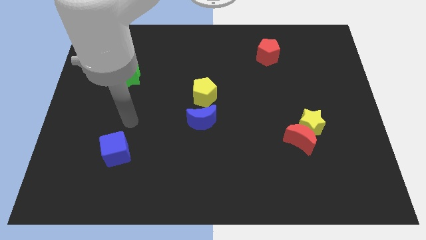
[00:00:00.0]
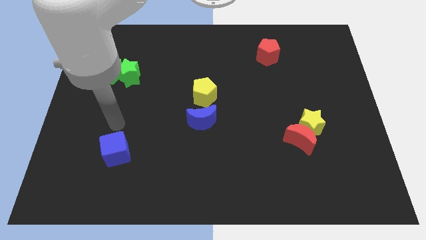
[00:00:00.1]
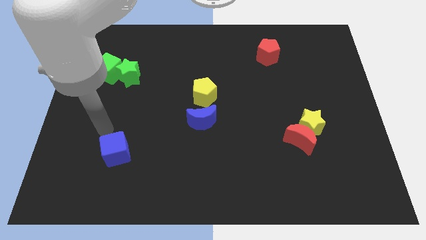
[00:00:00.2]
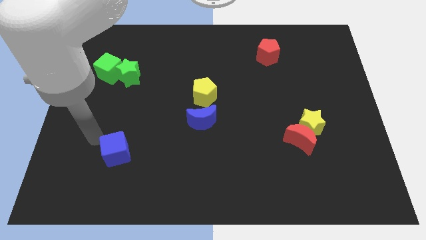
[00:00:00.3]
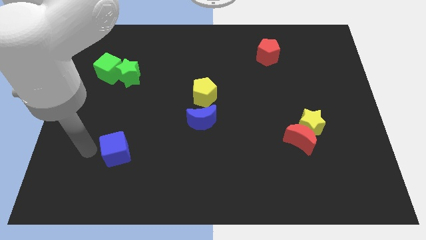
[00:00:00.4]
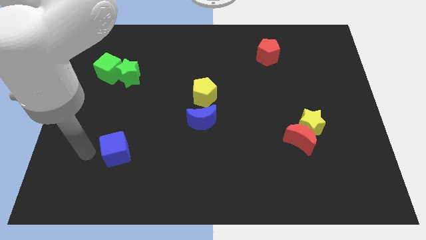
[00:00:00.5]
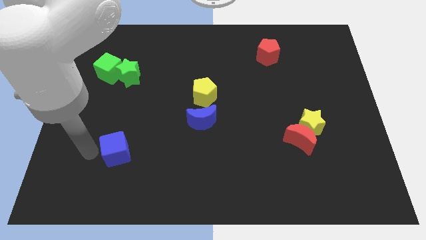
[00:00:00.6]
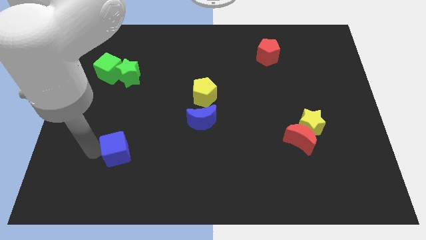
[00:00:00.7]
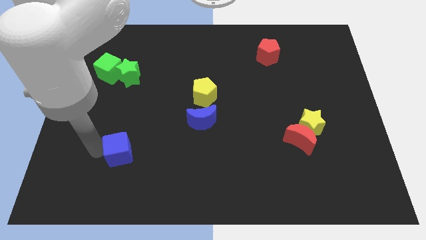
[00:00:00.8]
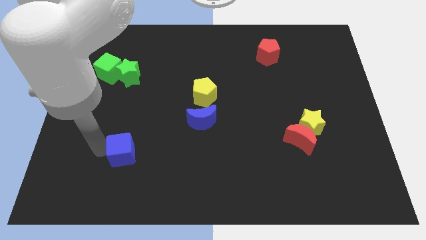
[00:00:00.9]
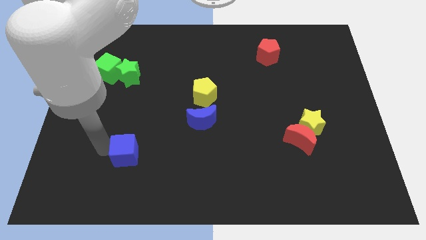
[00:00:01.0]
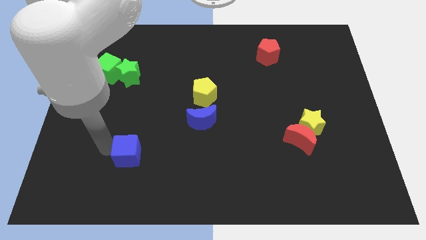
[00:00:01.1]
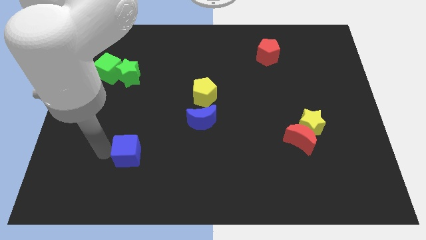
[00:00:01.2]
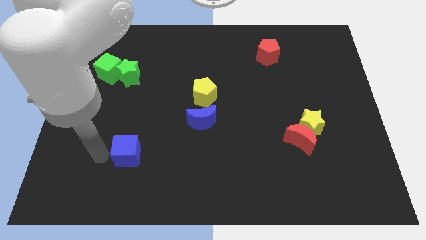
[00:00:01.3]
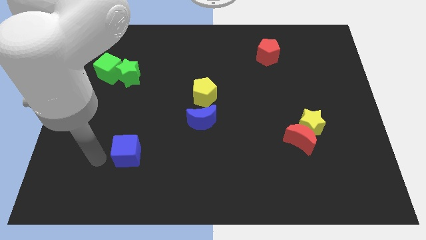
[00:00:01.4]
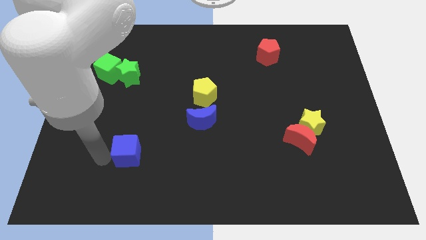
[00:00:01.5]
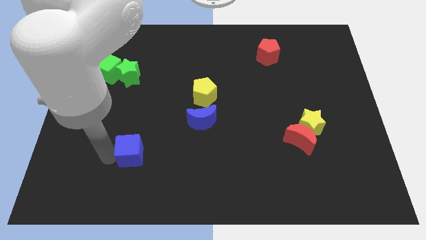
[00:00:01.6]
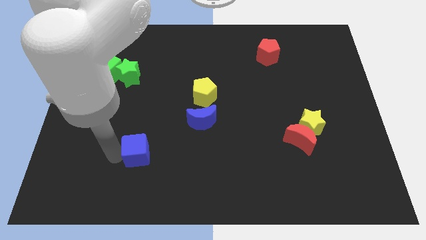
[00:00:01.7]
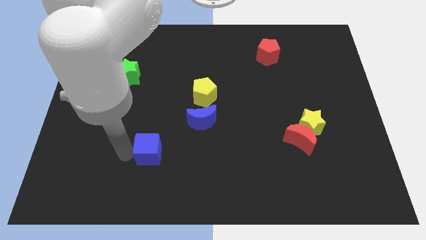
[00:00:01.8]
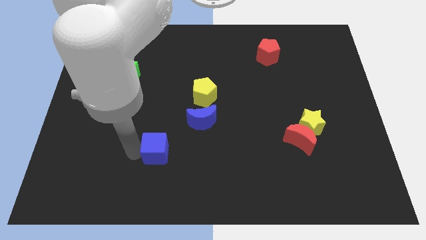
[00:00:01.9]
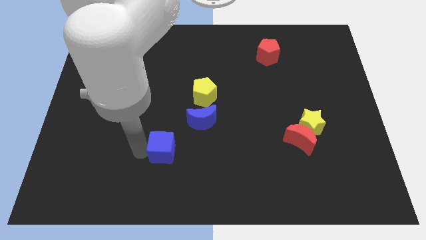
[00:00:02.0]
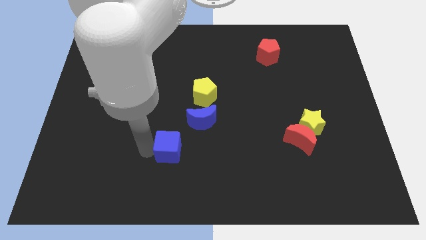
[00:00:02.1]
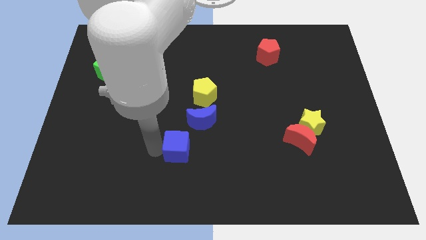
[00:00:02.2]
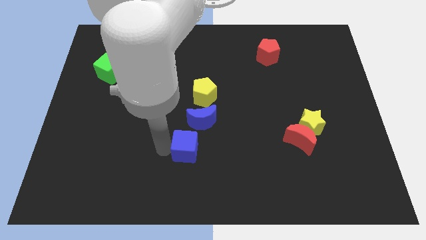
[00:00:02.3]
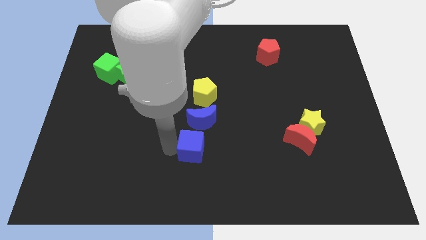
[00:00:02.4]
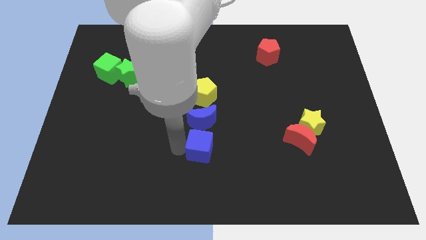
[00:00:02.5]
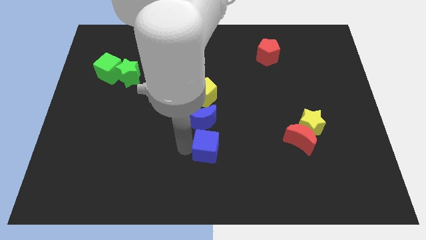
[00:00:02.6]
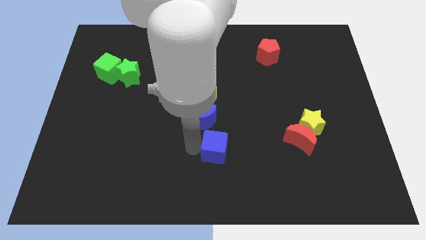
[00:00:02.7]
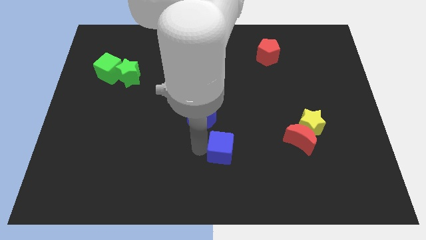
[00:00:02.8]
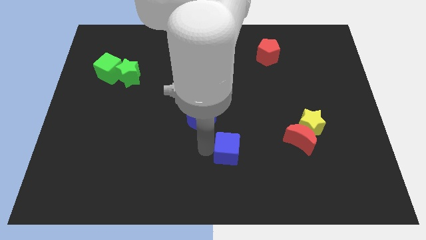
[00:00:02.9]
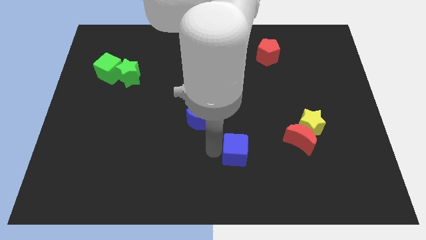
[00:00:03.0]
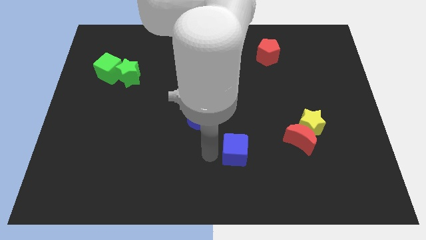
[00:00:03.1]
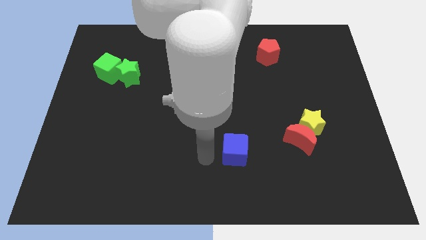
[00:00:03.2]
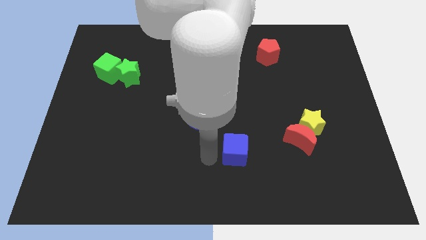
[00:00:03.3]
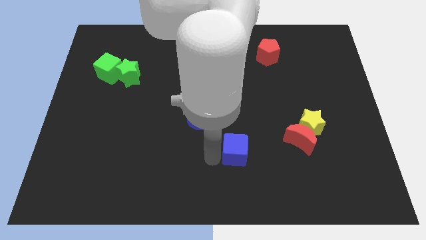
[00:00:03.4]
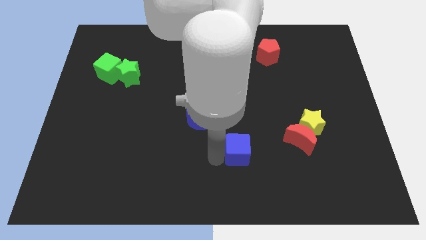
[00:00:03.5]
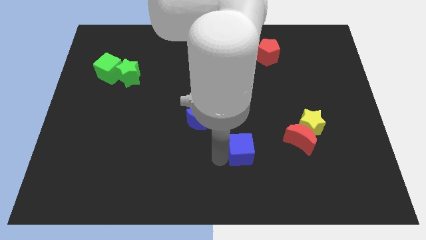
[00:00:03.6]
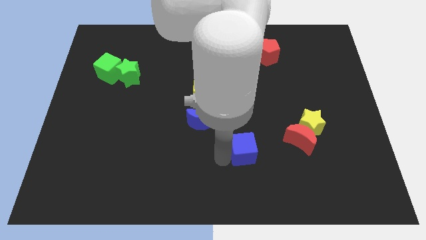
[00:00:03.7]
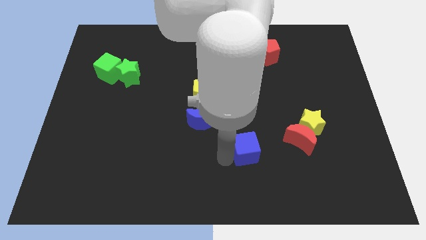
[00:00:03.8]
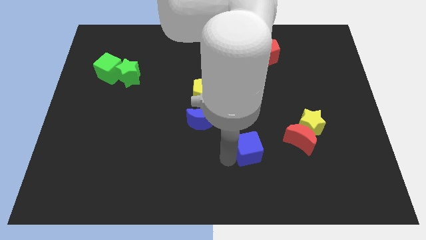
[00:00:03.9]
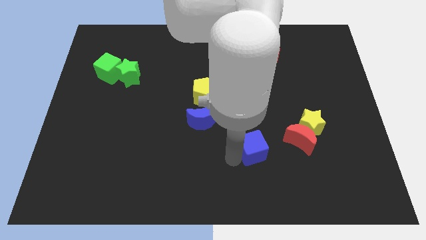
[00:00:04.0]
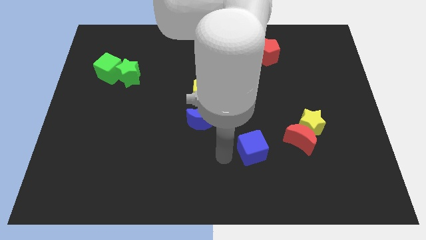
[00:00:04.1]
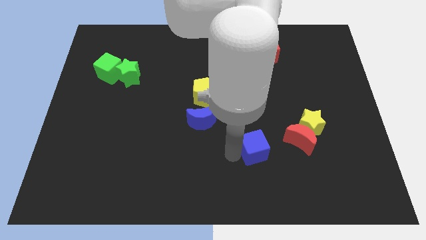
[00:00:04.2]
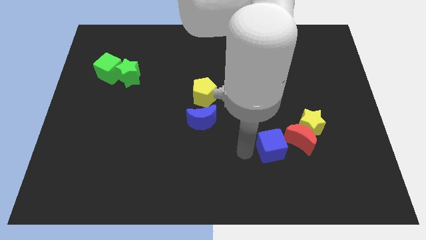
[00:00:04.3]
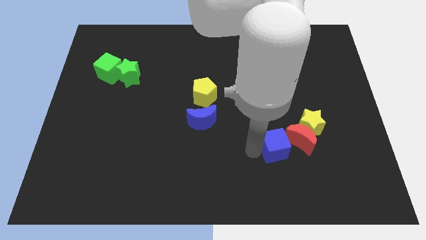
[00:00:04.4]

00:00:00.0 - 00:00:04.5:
move the blue cube next to the red moon

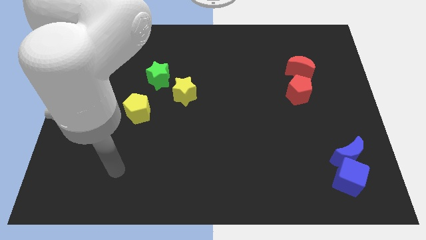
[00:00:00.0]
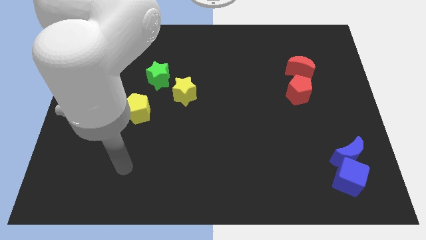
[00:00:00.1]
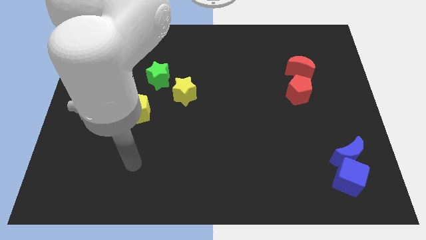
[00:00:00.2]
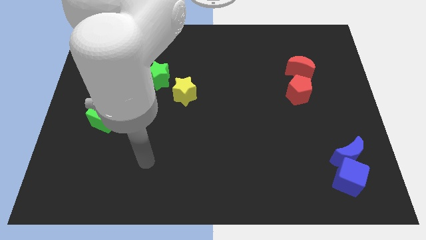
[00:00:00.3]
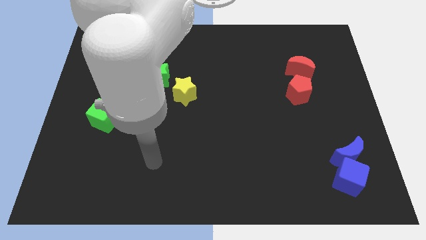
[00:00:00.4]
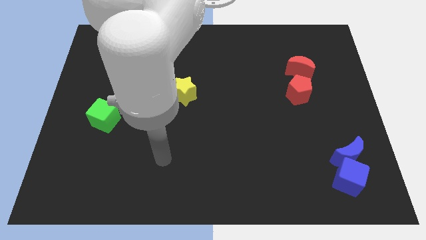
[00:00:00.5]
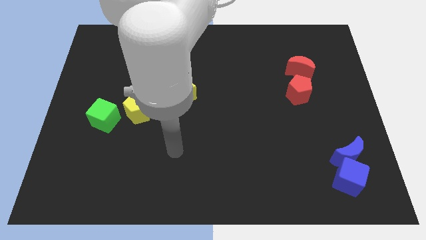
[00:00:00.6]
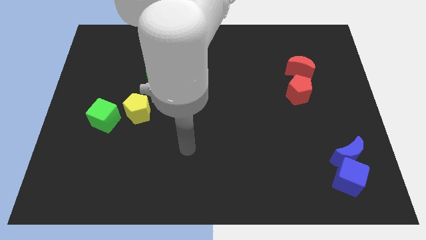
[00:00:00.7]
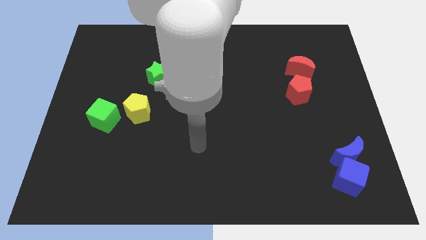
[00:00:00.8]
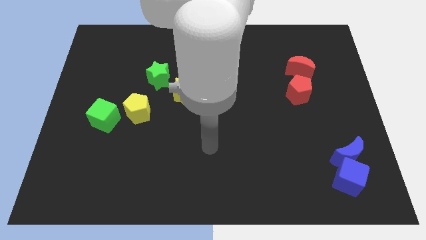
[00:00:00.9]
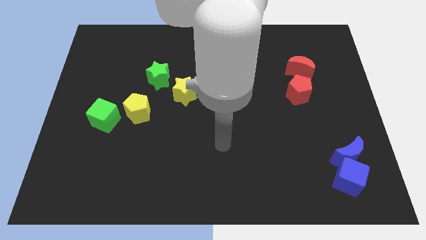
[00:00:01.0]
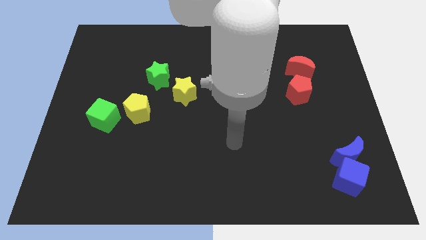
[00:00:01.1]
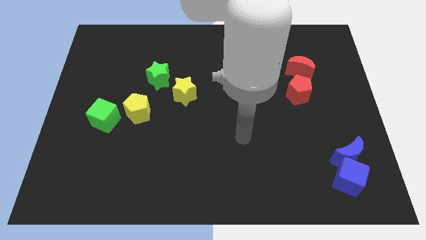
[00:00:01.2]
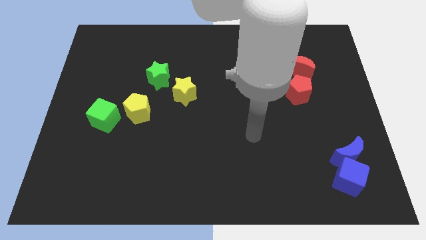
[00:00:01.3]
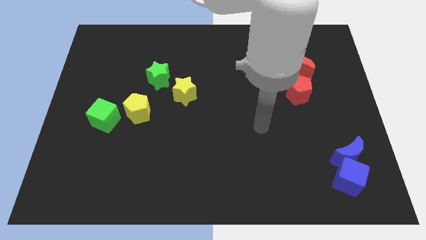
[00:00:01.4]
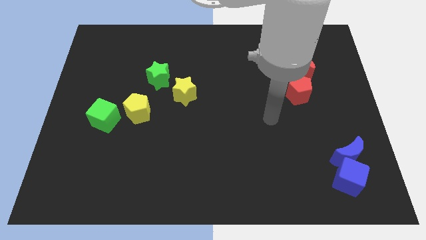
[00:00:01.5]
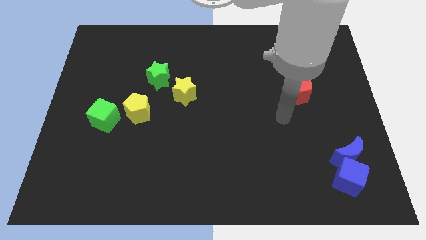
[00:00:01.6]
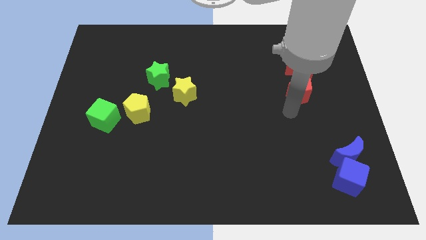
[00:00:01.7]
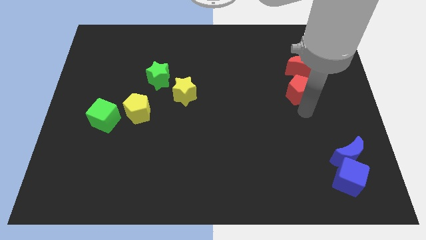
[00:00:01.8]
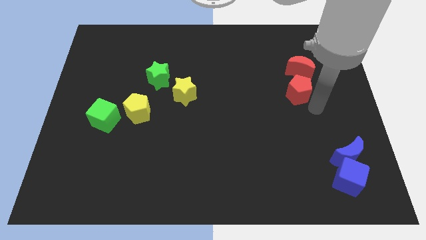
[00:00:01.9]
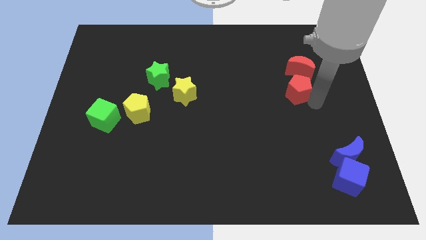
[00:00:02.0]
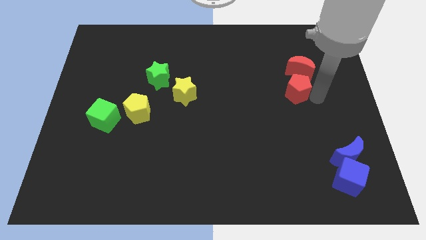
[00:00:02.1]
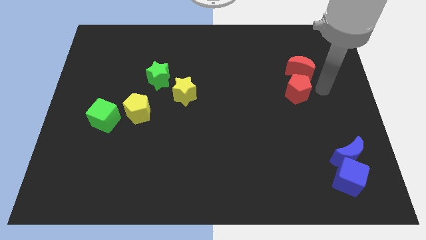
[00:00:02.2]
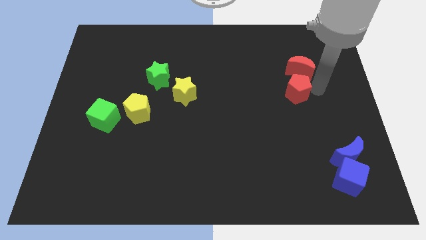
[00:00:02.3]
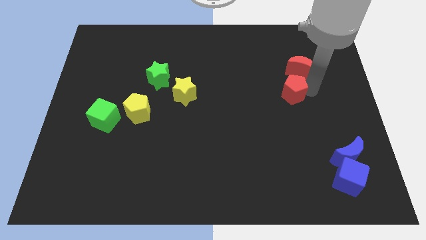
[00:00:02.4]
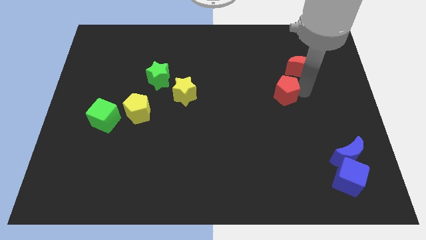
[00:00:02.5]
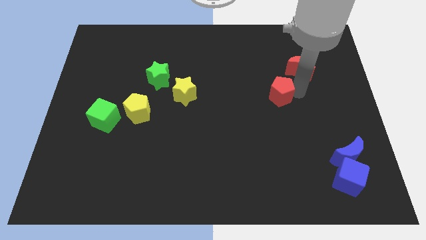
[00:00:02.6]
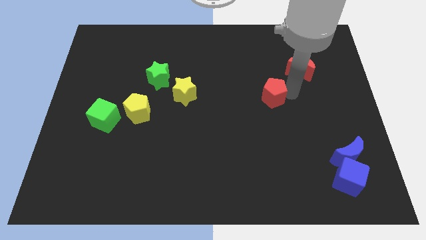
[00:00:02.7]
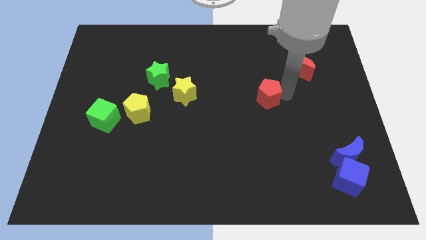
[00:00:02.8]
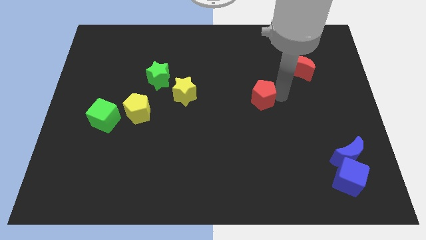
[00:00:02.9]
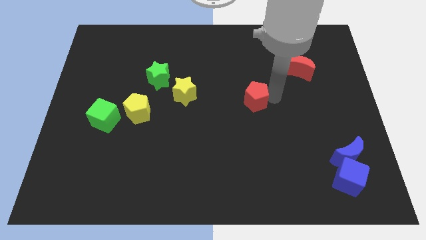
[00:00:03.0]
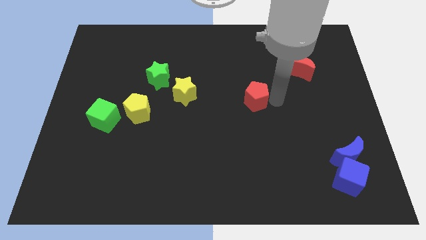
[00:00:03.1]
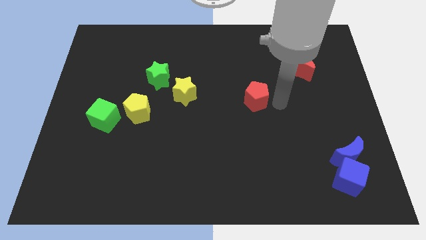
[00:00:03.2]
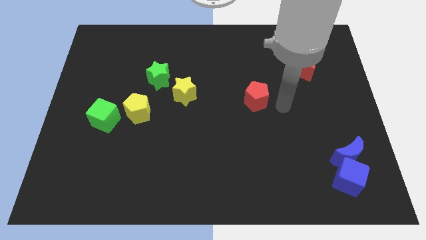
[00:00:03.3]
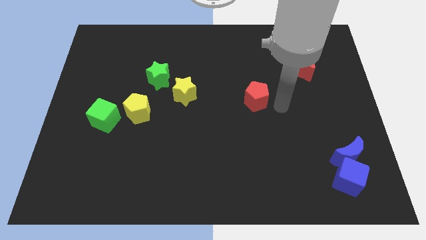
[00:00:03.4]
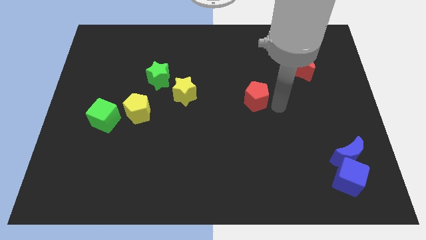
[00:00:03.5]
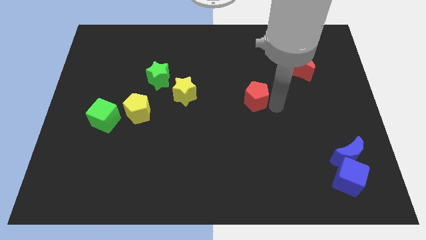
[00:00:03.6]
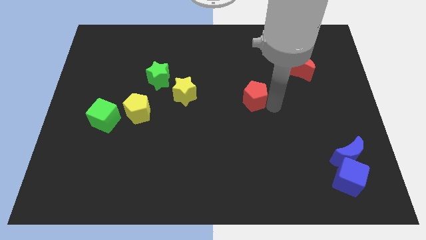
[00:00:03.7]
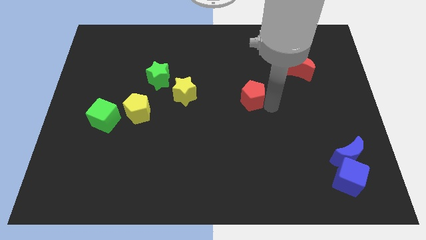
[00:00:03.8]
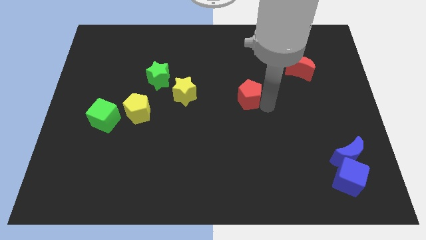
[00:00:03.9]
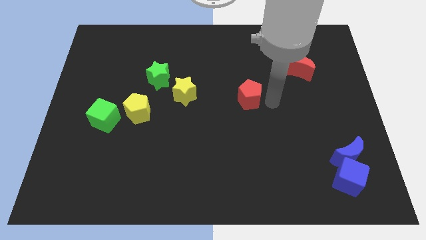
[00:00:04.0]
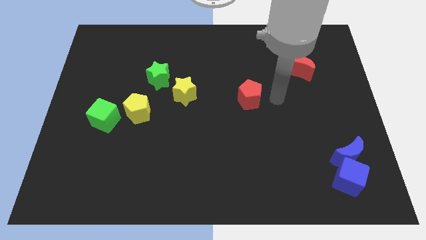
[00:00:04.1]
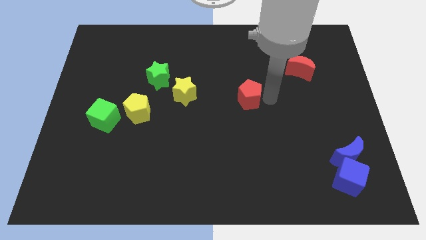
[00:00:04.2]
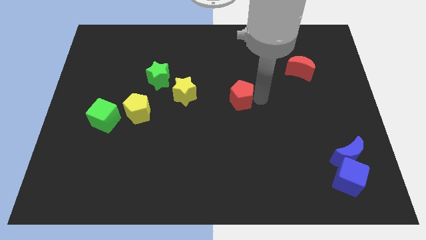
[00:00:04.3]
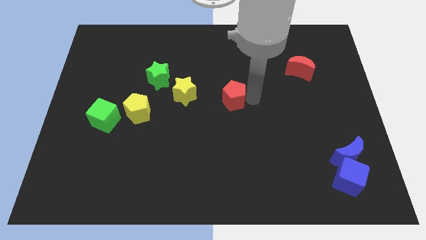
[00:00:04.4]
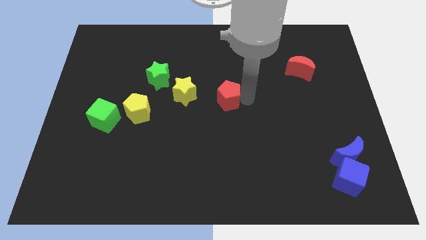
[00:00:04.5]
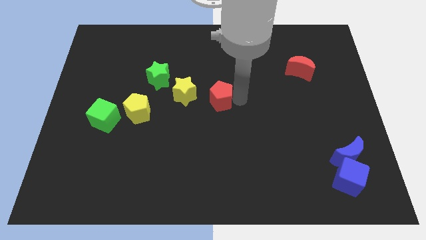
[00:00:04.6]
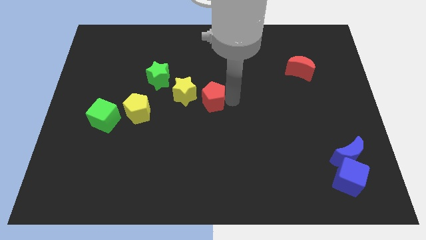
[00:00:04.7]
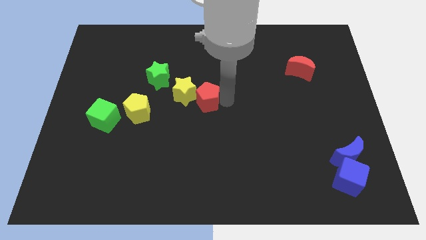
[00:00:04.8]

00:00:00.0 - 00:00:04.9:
move the red pentagon close to the yellow star
